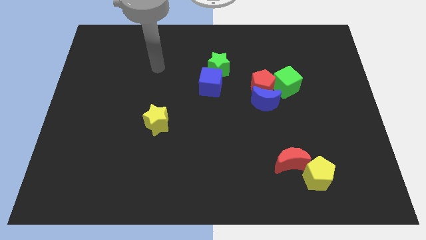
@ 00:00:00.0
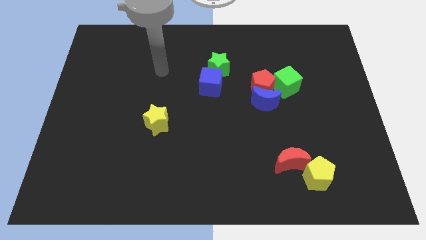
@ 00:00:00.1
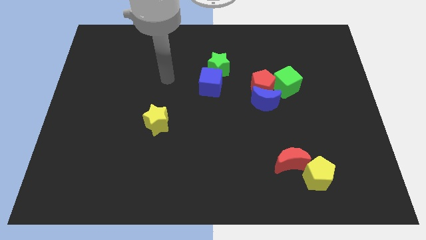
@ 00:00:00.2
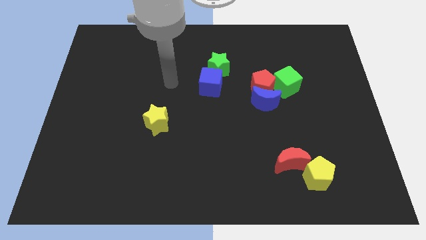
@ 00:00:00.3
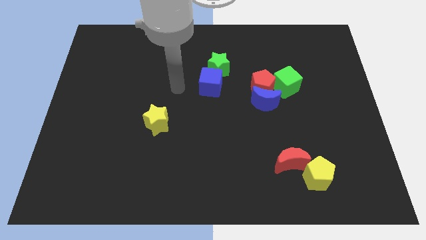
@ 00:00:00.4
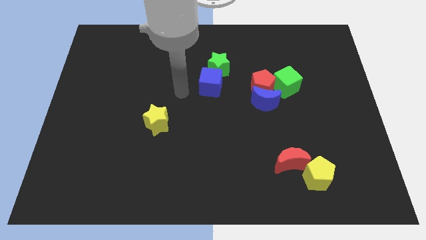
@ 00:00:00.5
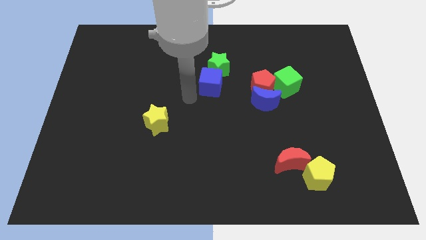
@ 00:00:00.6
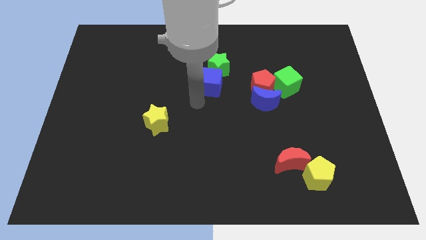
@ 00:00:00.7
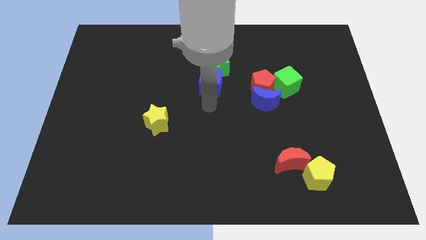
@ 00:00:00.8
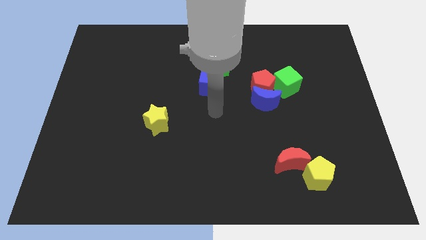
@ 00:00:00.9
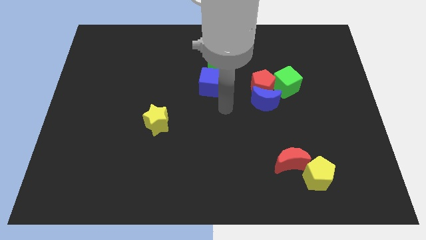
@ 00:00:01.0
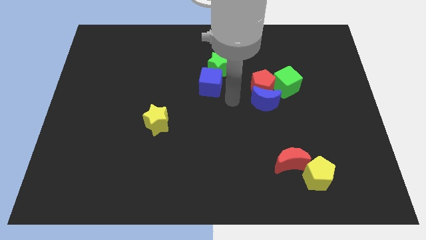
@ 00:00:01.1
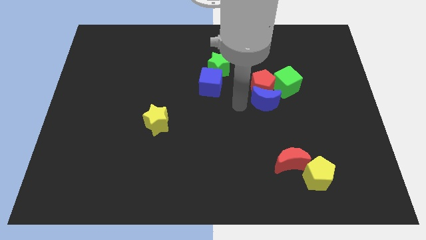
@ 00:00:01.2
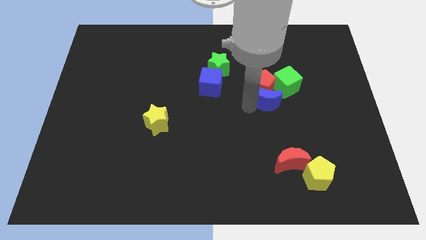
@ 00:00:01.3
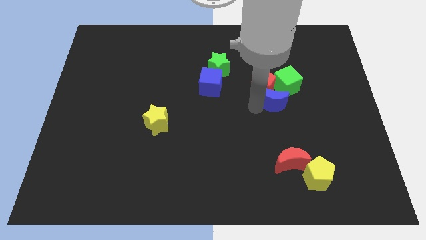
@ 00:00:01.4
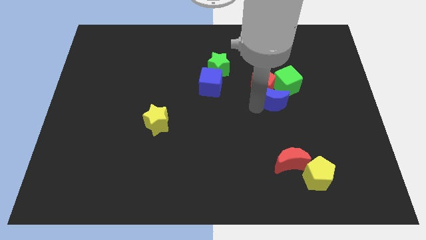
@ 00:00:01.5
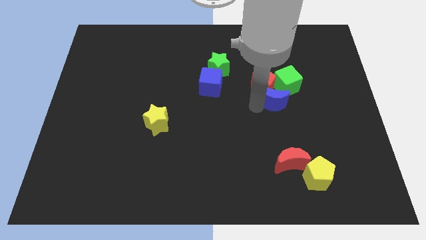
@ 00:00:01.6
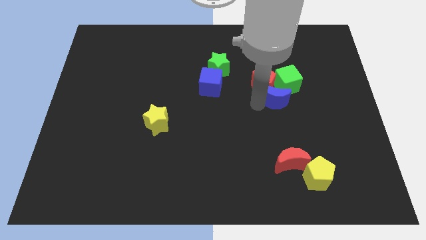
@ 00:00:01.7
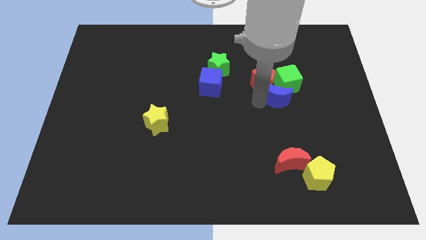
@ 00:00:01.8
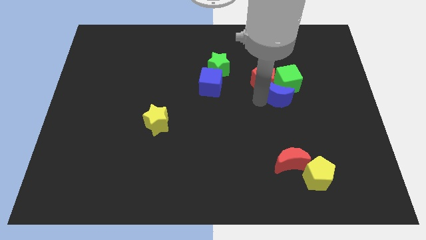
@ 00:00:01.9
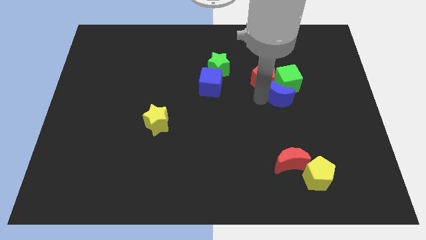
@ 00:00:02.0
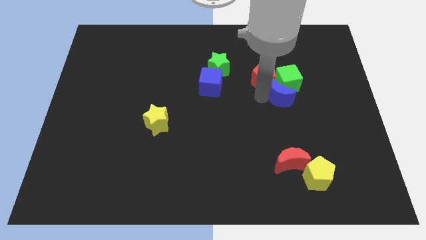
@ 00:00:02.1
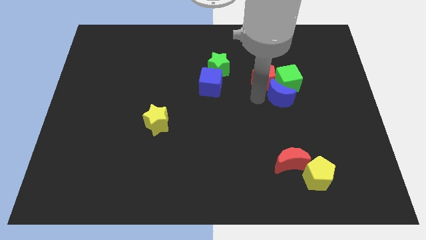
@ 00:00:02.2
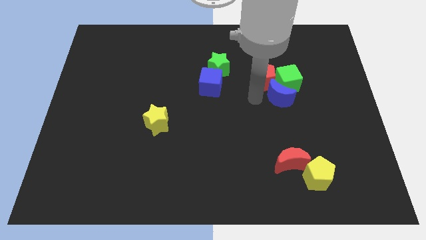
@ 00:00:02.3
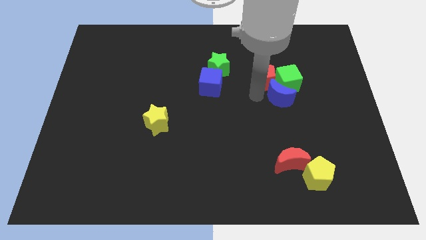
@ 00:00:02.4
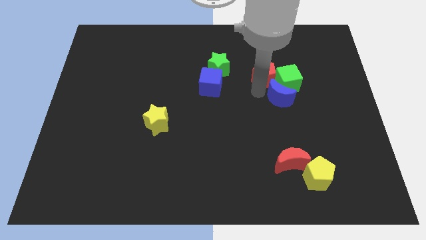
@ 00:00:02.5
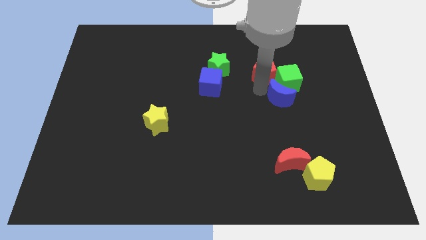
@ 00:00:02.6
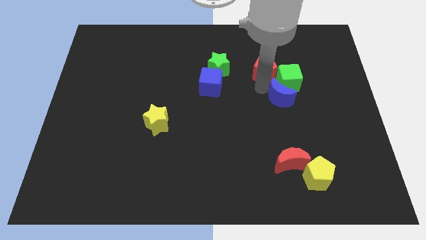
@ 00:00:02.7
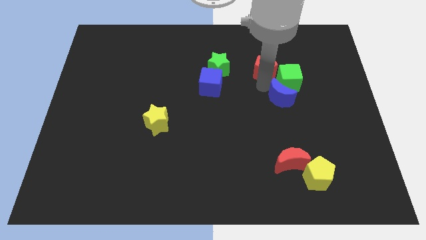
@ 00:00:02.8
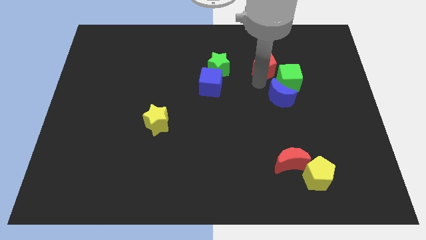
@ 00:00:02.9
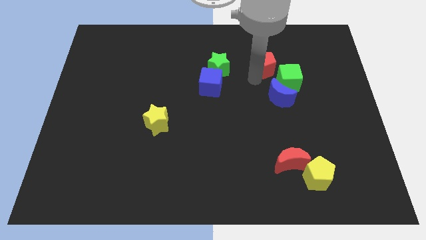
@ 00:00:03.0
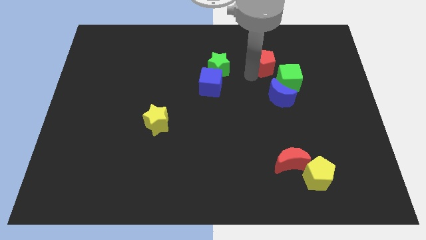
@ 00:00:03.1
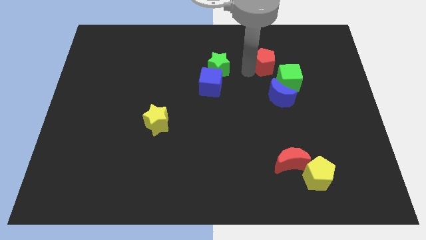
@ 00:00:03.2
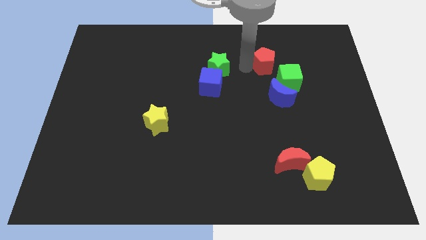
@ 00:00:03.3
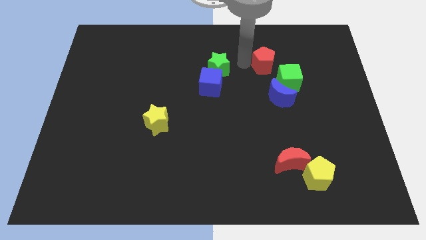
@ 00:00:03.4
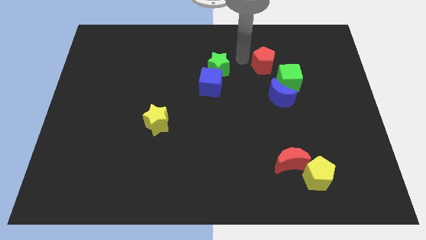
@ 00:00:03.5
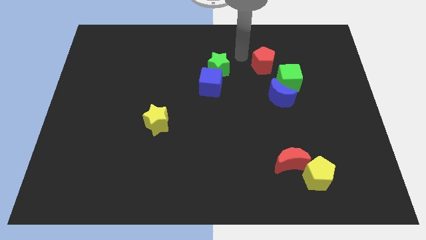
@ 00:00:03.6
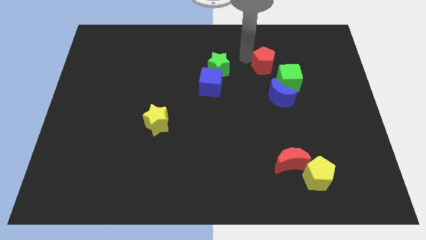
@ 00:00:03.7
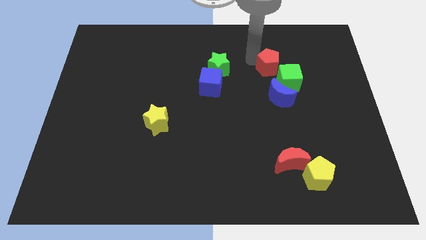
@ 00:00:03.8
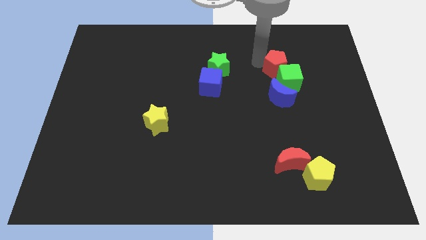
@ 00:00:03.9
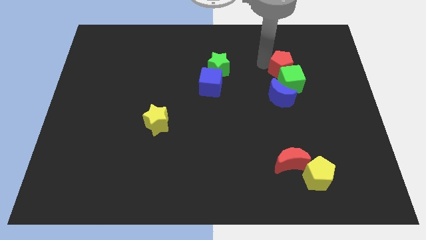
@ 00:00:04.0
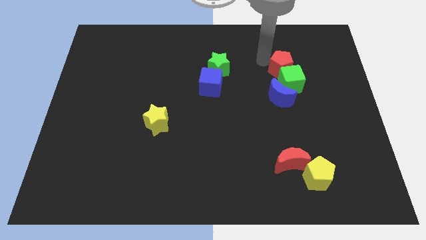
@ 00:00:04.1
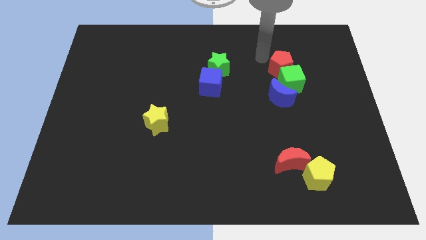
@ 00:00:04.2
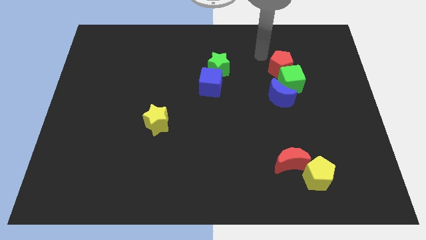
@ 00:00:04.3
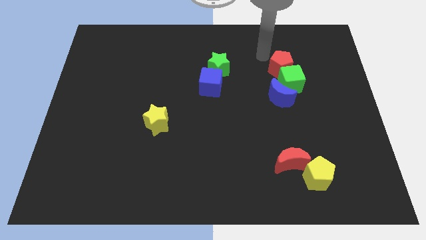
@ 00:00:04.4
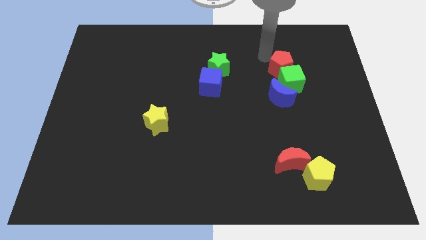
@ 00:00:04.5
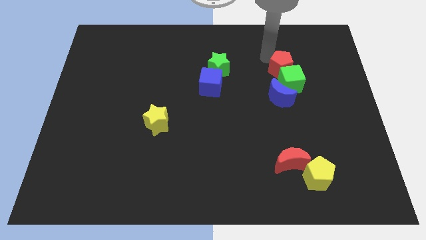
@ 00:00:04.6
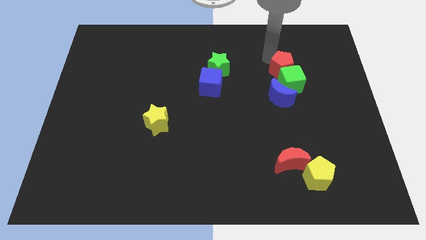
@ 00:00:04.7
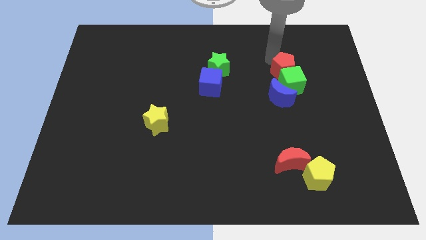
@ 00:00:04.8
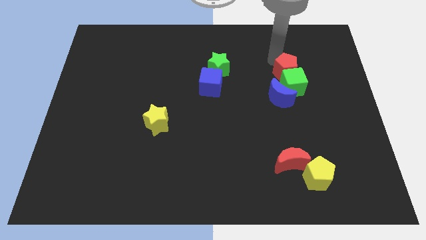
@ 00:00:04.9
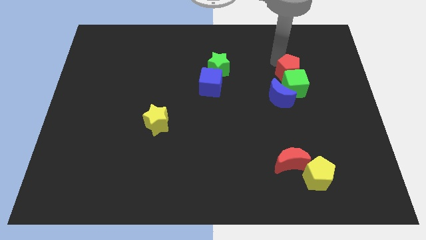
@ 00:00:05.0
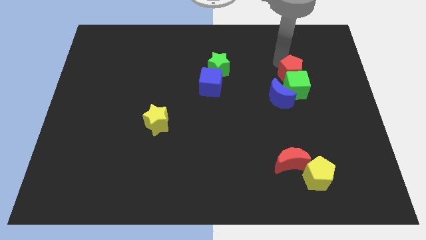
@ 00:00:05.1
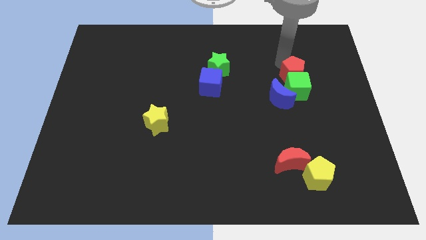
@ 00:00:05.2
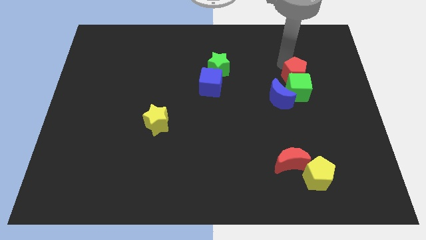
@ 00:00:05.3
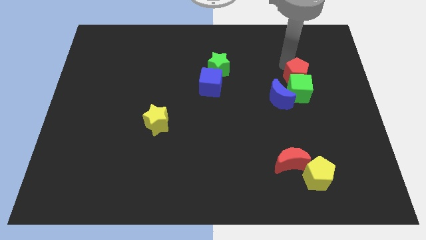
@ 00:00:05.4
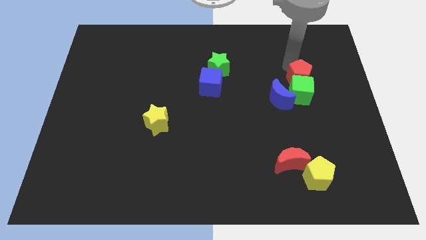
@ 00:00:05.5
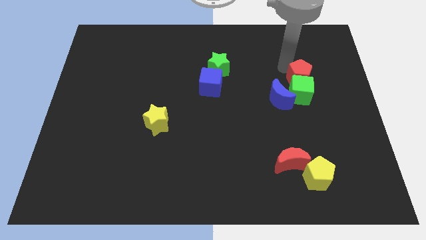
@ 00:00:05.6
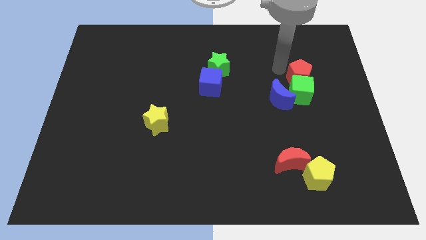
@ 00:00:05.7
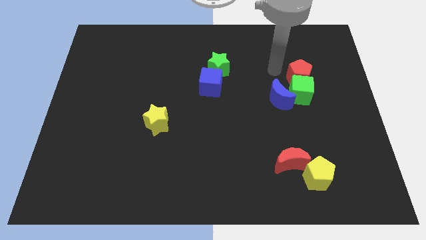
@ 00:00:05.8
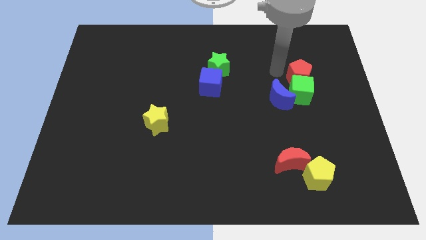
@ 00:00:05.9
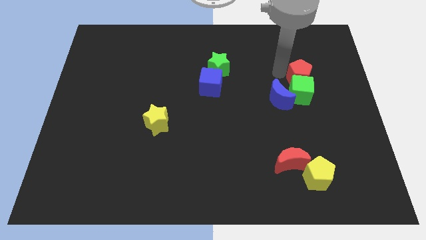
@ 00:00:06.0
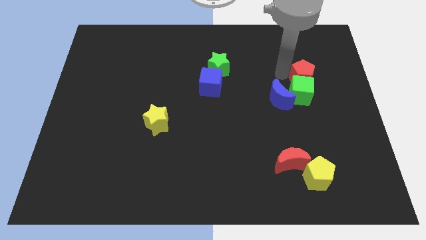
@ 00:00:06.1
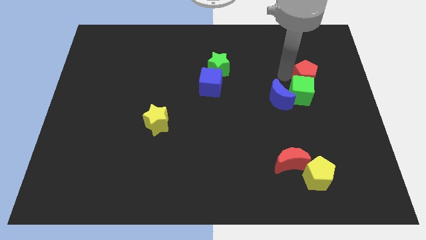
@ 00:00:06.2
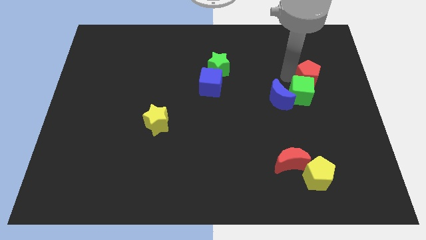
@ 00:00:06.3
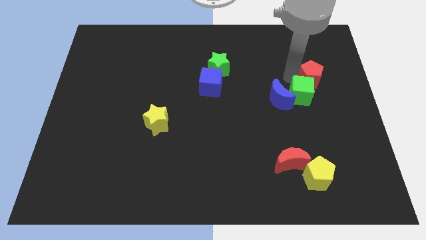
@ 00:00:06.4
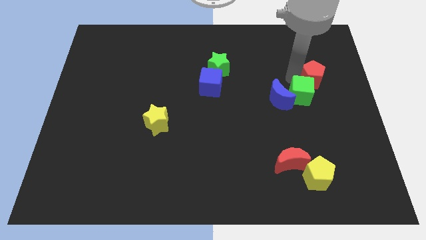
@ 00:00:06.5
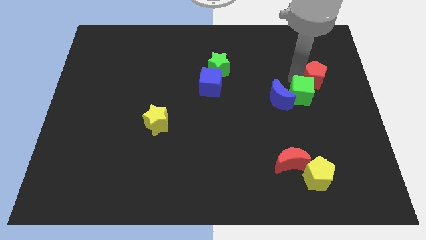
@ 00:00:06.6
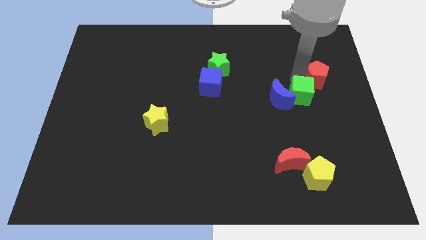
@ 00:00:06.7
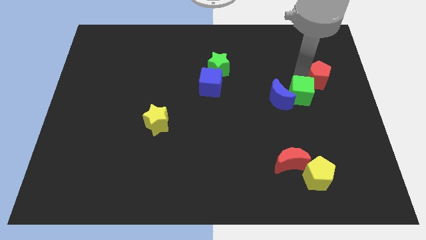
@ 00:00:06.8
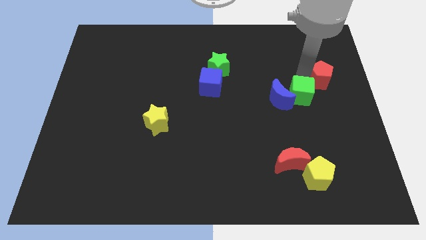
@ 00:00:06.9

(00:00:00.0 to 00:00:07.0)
move the red pentagon to the center right
